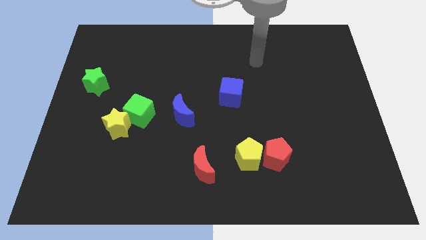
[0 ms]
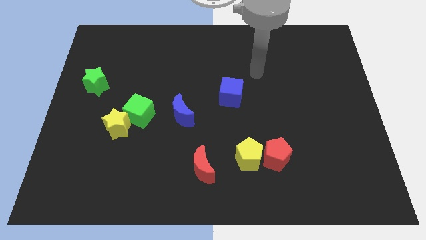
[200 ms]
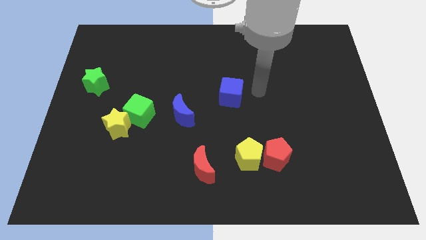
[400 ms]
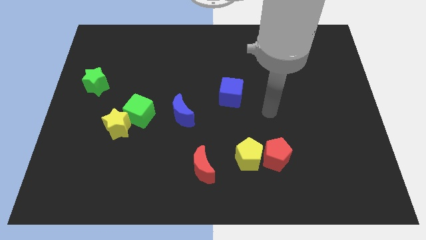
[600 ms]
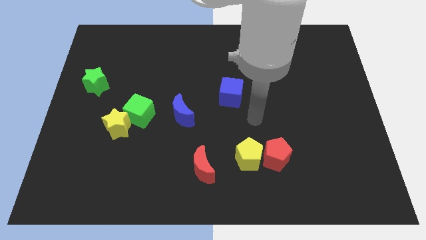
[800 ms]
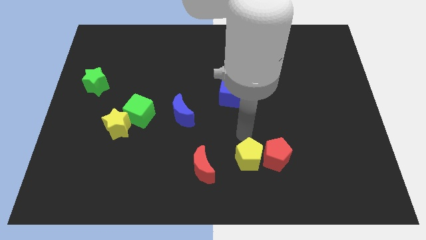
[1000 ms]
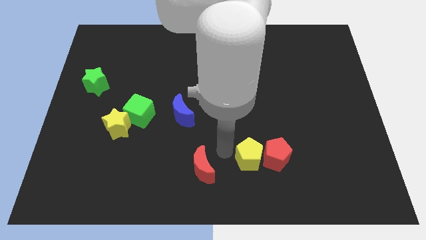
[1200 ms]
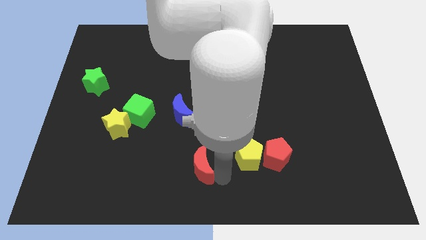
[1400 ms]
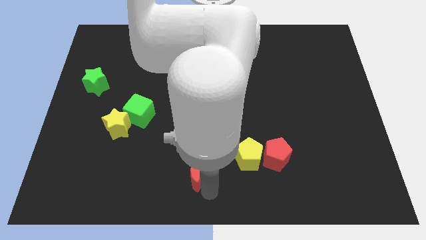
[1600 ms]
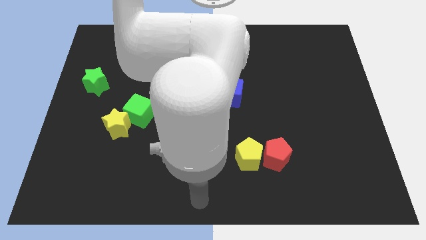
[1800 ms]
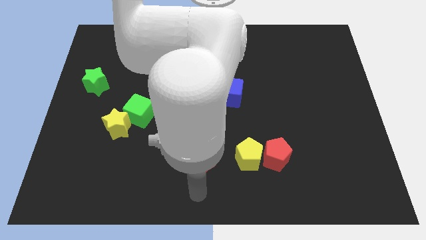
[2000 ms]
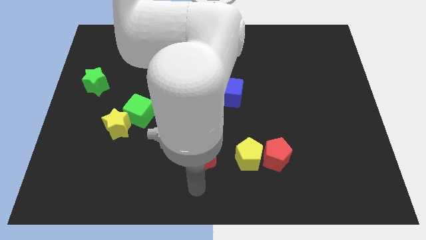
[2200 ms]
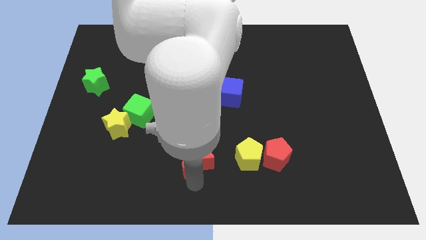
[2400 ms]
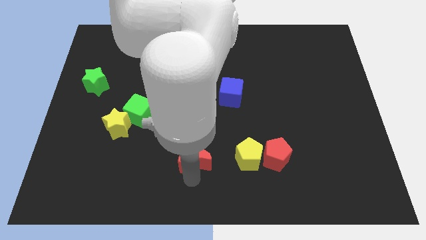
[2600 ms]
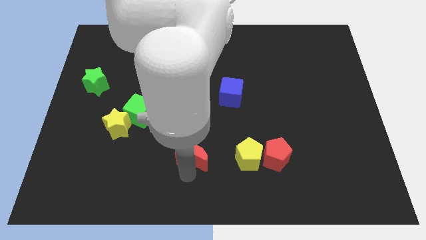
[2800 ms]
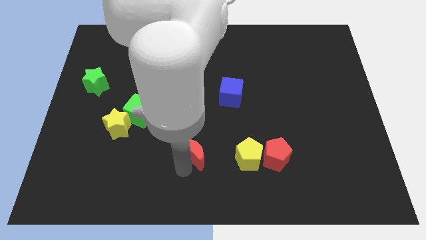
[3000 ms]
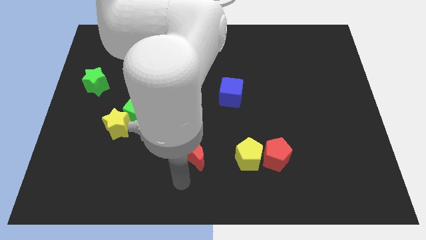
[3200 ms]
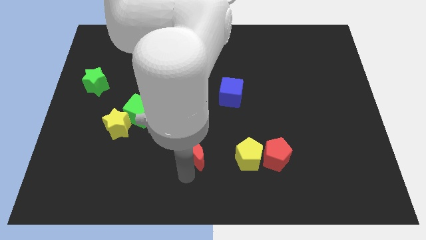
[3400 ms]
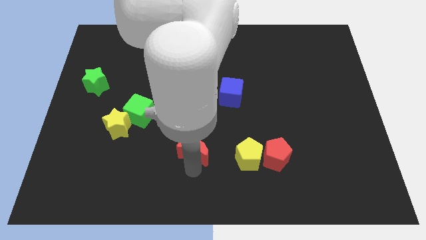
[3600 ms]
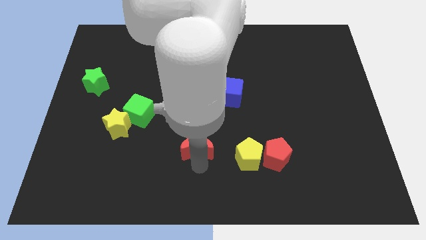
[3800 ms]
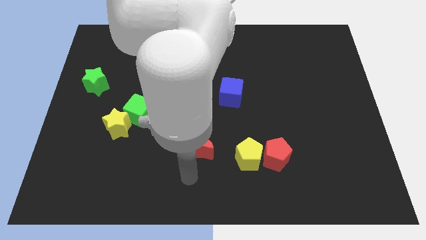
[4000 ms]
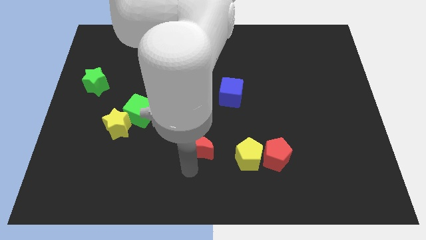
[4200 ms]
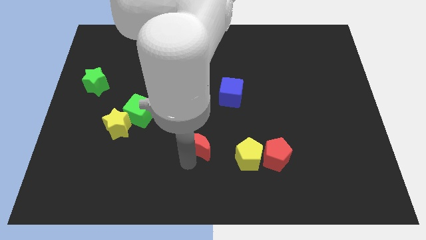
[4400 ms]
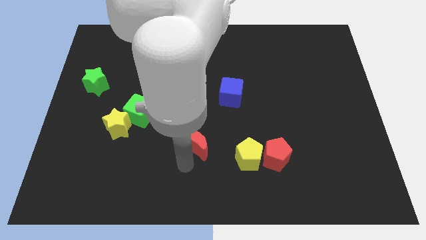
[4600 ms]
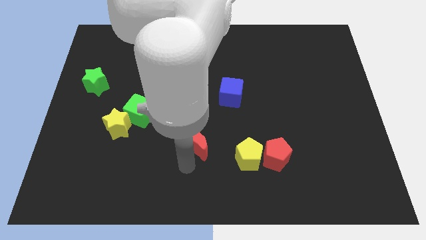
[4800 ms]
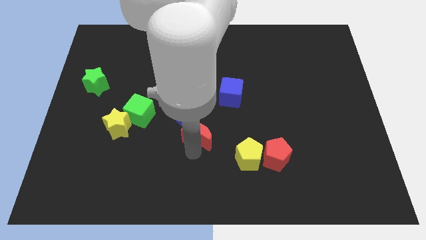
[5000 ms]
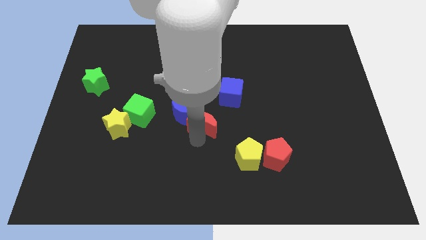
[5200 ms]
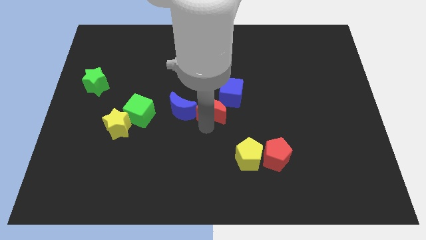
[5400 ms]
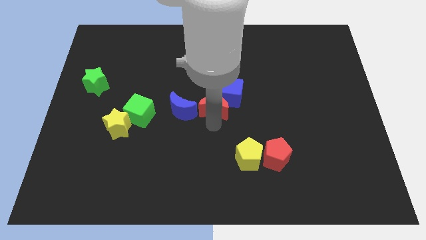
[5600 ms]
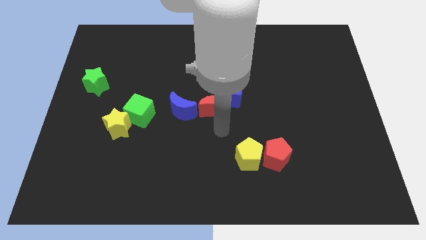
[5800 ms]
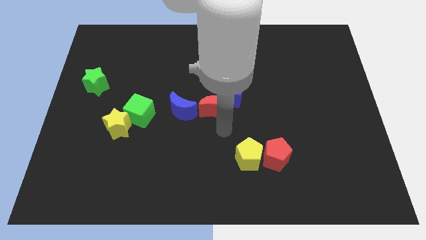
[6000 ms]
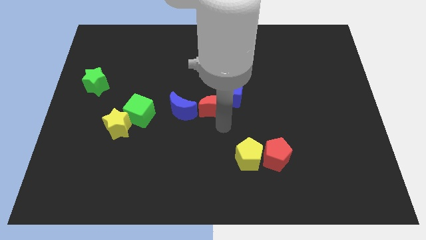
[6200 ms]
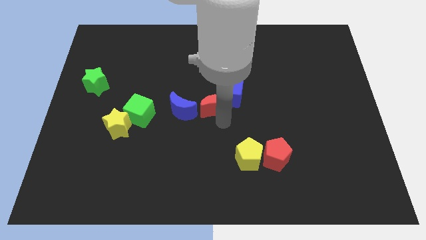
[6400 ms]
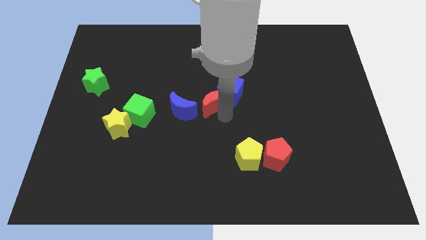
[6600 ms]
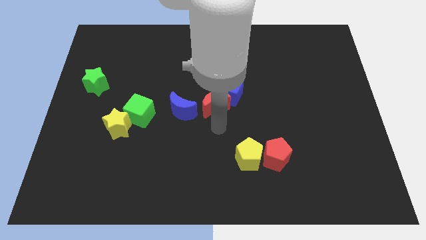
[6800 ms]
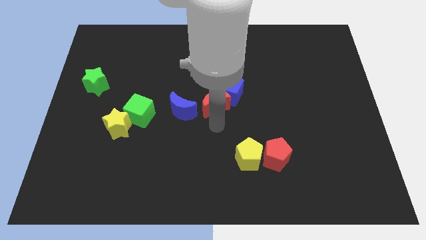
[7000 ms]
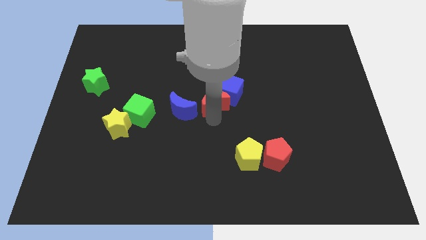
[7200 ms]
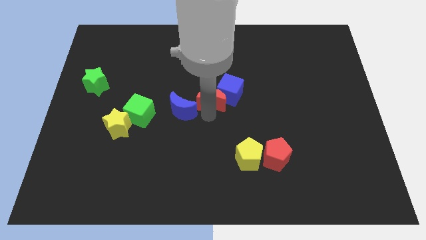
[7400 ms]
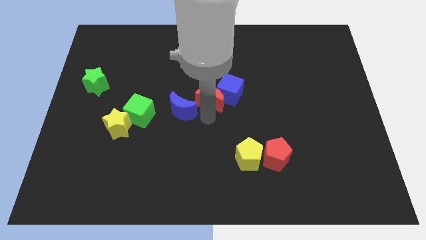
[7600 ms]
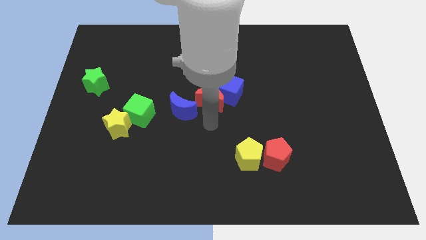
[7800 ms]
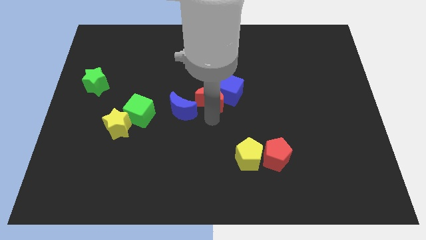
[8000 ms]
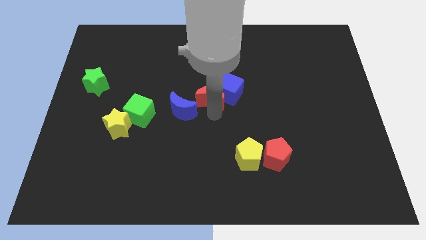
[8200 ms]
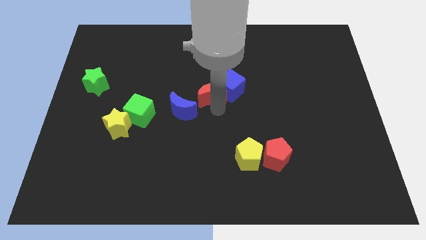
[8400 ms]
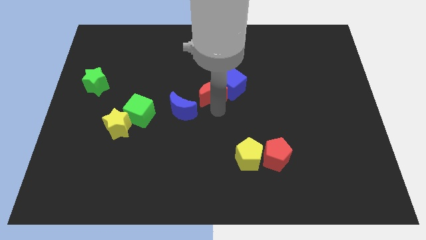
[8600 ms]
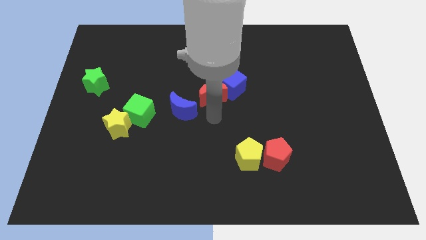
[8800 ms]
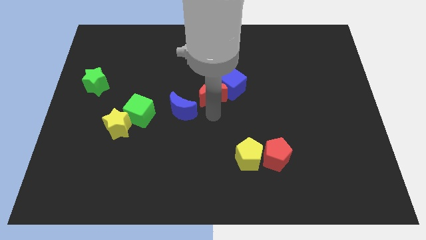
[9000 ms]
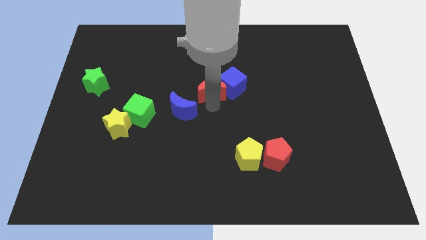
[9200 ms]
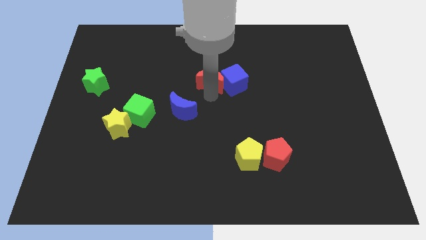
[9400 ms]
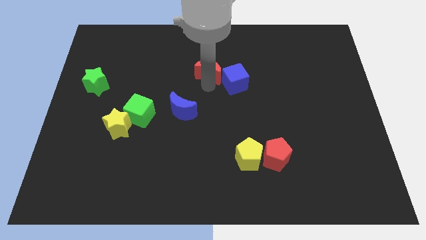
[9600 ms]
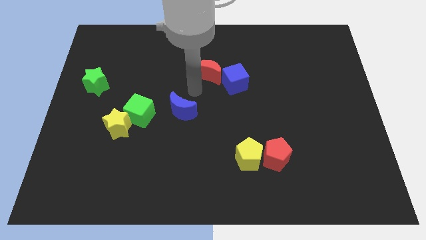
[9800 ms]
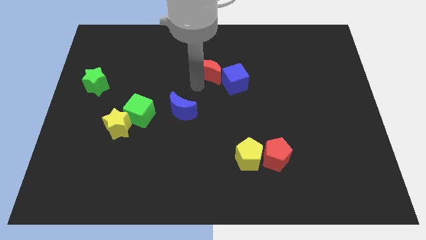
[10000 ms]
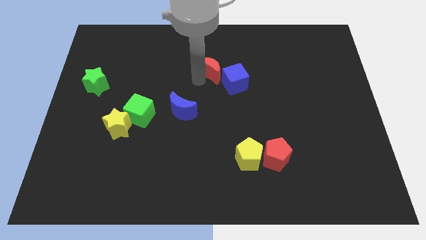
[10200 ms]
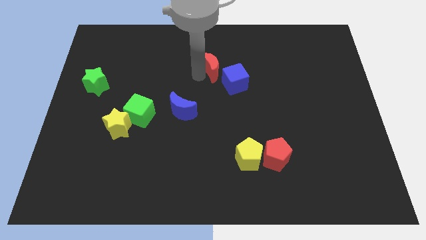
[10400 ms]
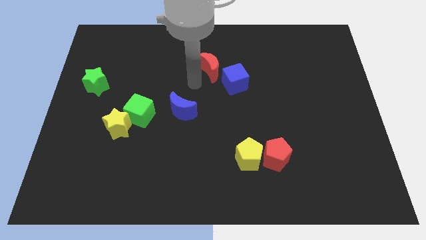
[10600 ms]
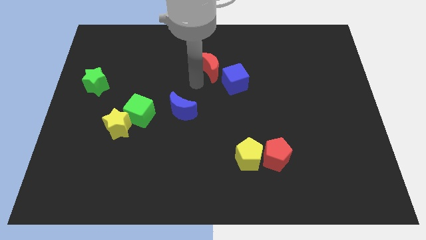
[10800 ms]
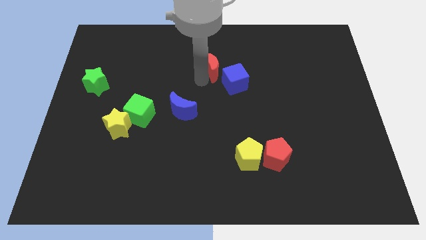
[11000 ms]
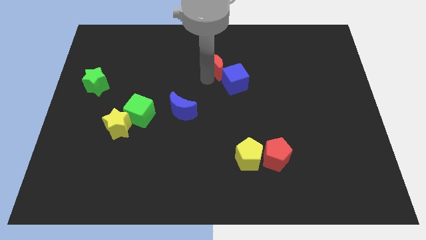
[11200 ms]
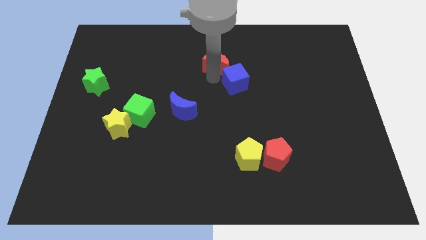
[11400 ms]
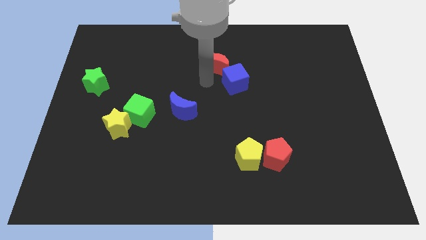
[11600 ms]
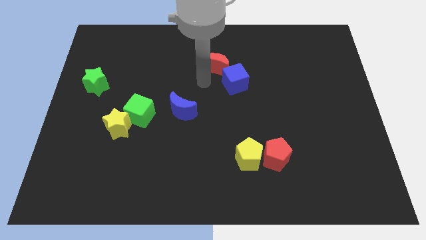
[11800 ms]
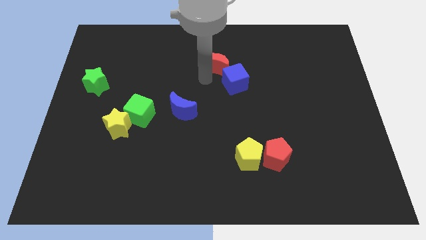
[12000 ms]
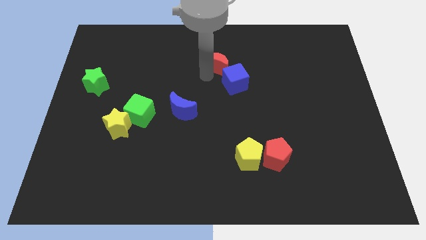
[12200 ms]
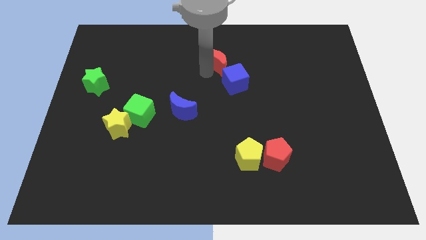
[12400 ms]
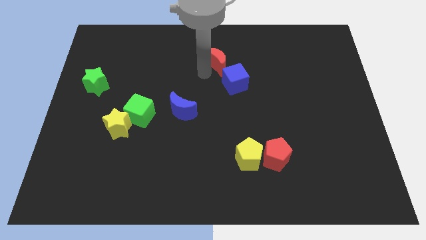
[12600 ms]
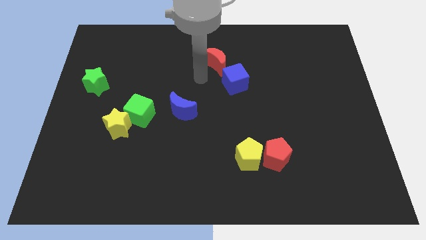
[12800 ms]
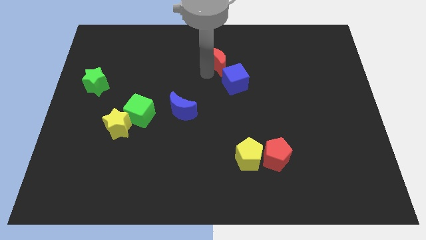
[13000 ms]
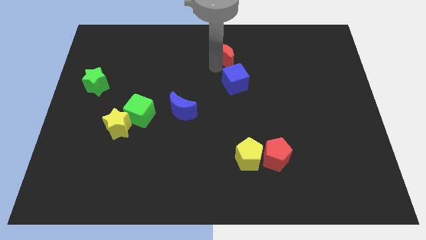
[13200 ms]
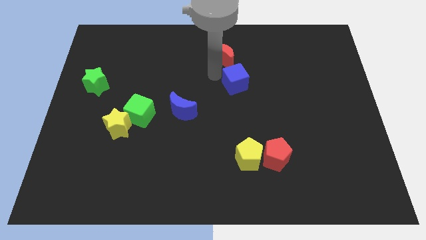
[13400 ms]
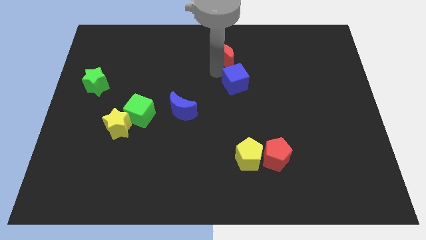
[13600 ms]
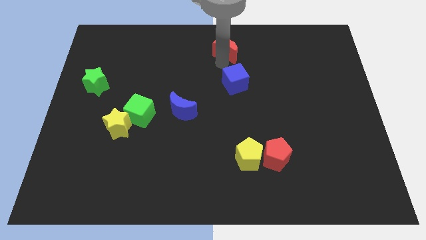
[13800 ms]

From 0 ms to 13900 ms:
push the red moon to the top side
